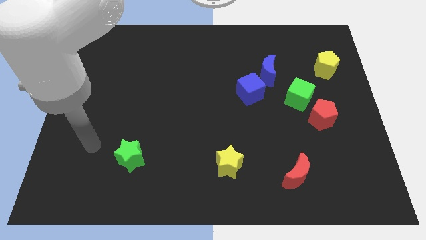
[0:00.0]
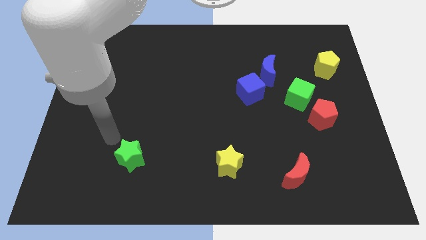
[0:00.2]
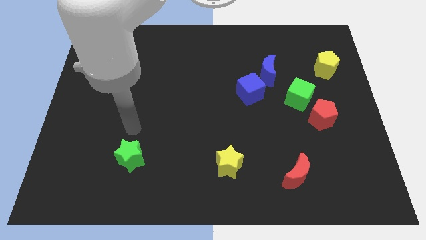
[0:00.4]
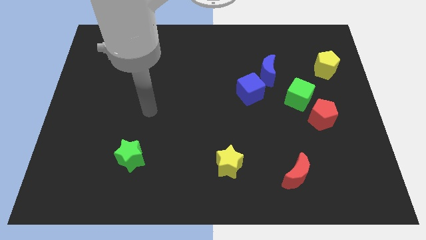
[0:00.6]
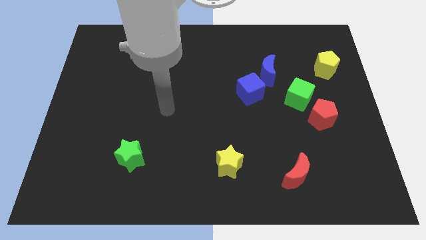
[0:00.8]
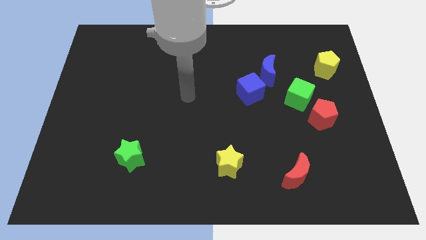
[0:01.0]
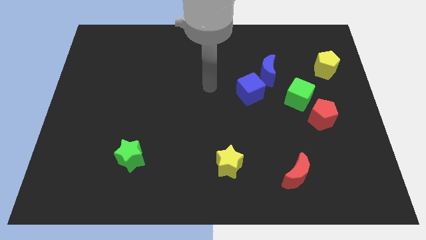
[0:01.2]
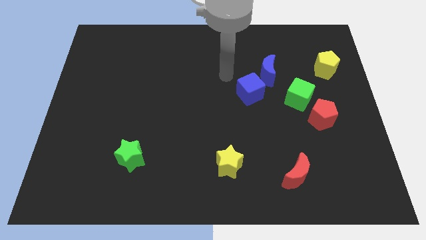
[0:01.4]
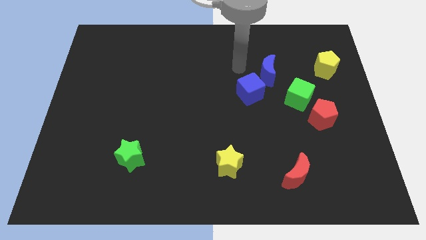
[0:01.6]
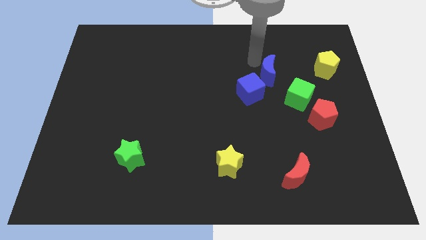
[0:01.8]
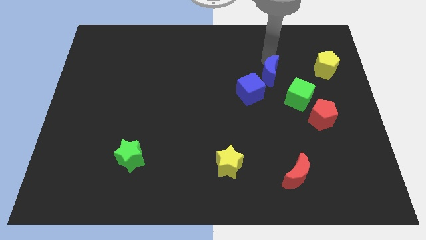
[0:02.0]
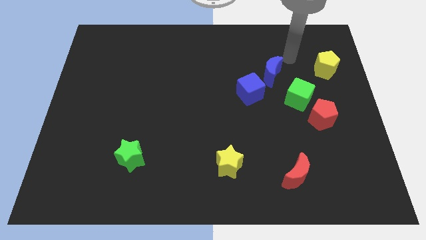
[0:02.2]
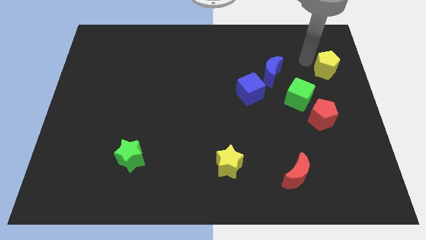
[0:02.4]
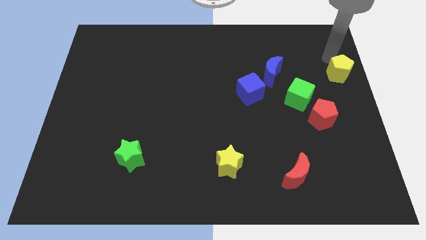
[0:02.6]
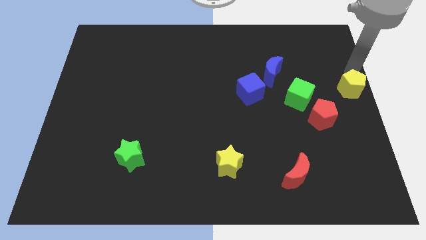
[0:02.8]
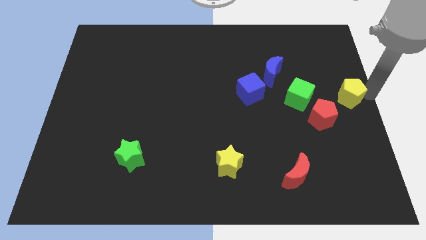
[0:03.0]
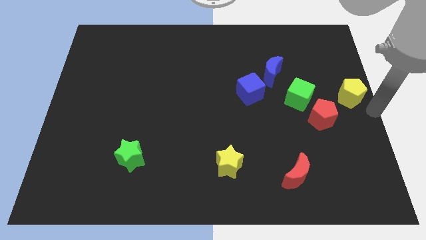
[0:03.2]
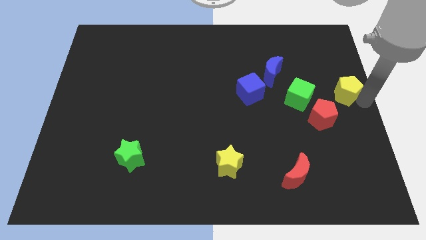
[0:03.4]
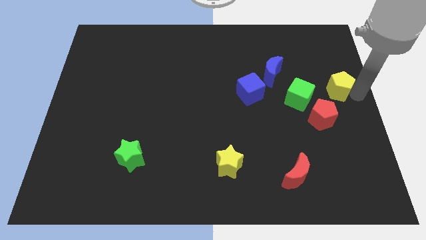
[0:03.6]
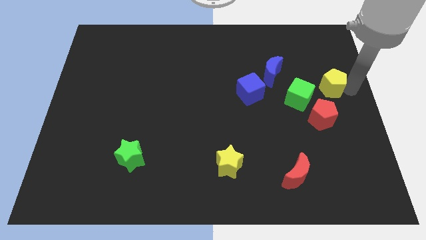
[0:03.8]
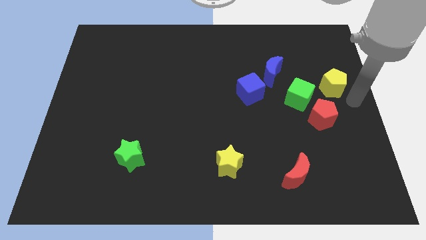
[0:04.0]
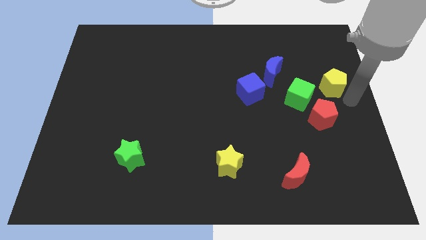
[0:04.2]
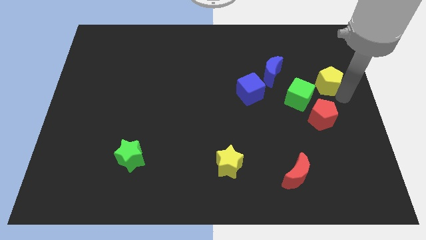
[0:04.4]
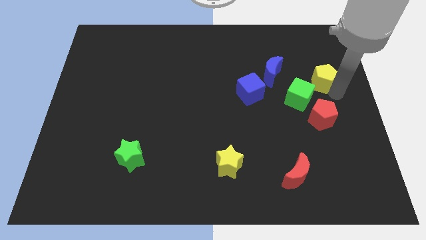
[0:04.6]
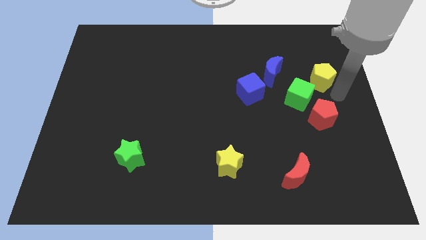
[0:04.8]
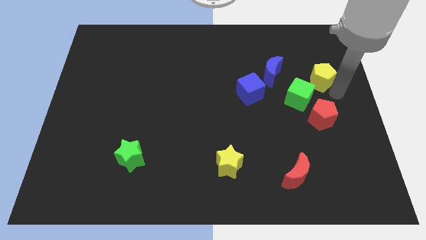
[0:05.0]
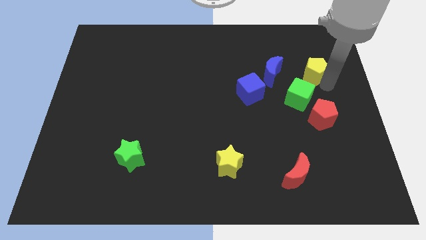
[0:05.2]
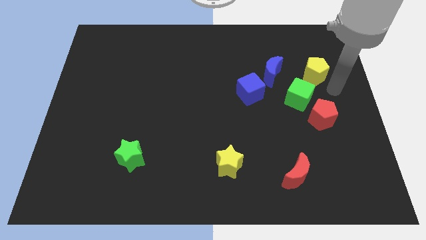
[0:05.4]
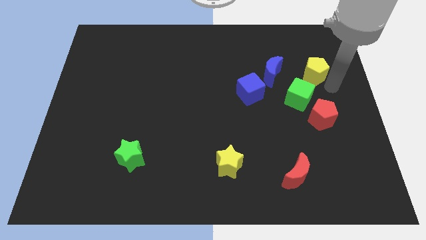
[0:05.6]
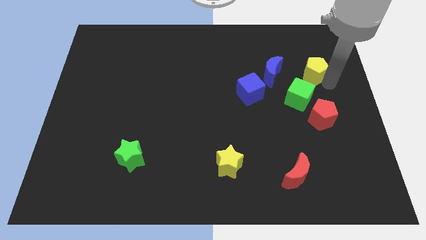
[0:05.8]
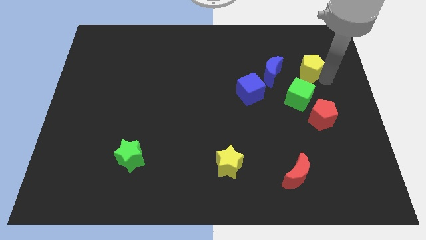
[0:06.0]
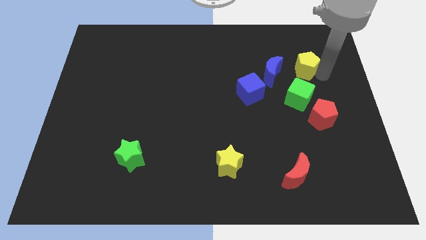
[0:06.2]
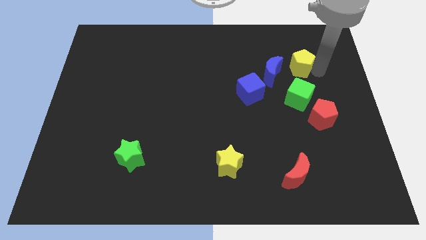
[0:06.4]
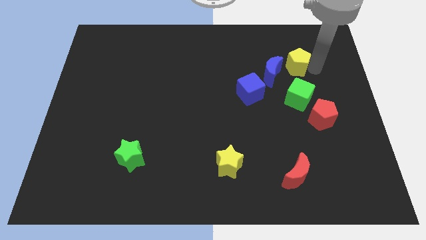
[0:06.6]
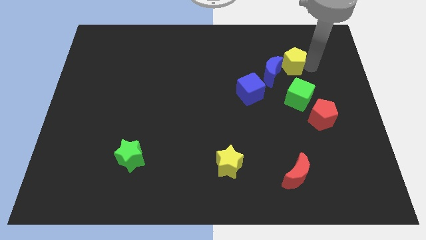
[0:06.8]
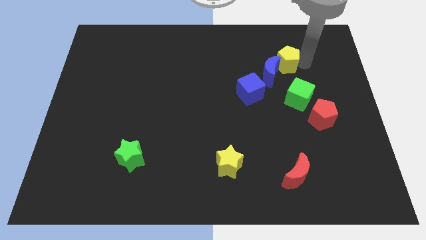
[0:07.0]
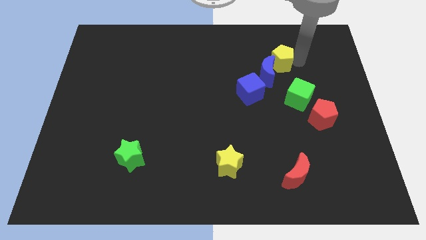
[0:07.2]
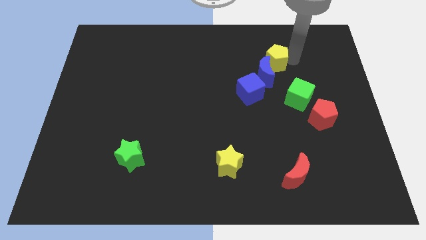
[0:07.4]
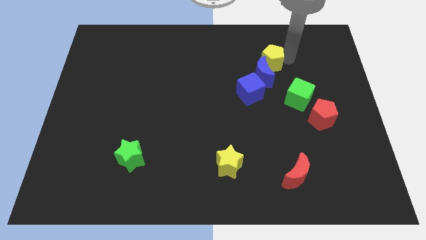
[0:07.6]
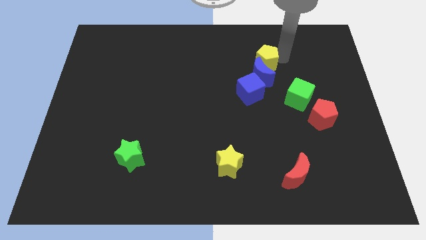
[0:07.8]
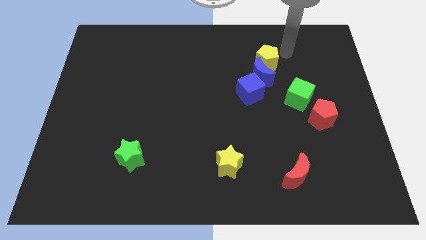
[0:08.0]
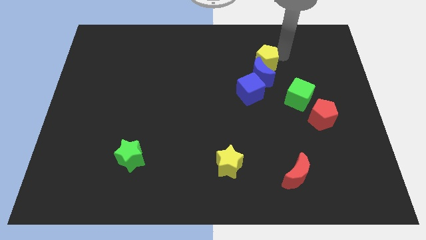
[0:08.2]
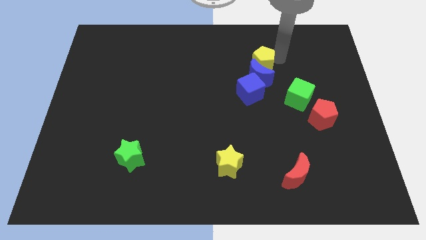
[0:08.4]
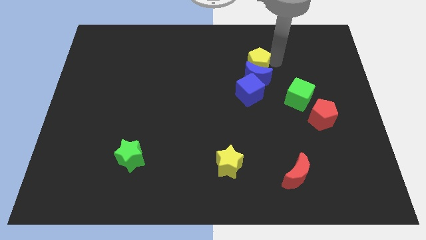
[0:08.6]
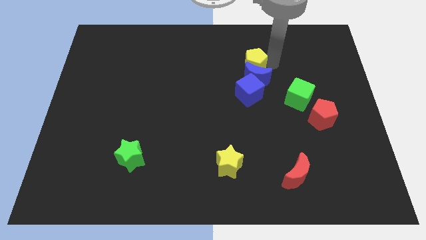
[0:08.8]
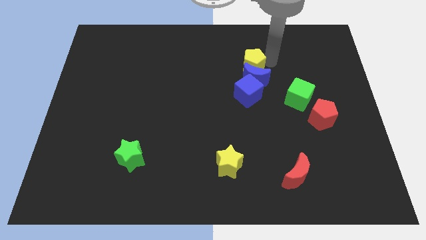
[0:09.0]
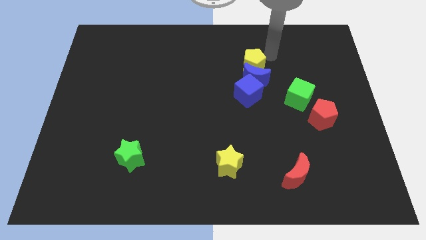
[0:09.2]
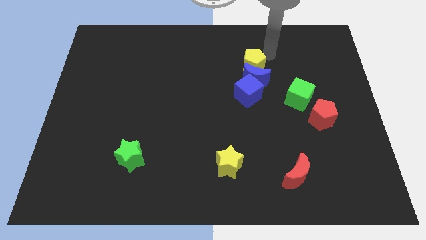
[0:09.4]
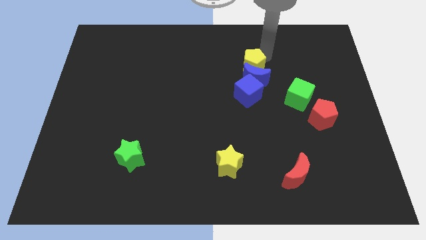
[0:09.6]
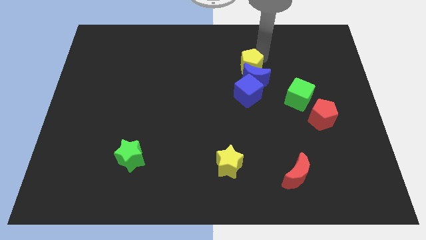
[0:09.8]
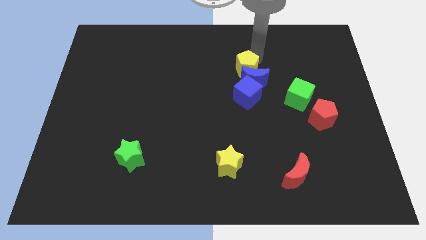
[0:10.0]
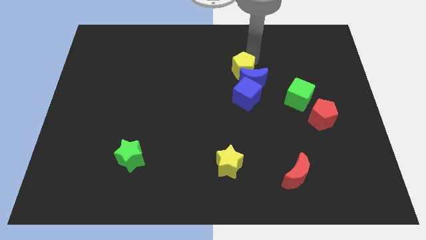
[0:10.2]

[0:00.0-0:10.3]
move the yellow pentagon to the middle of the board

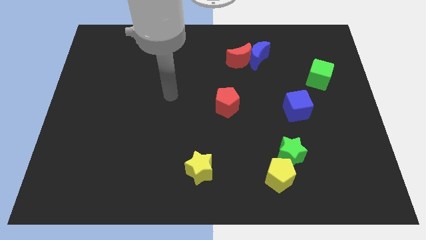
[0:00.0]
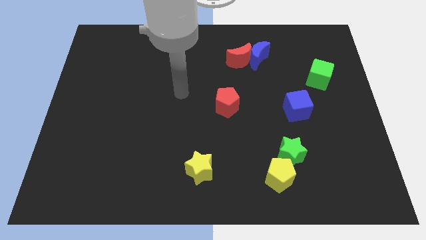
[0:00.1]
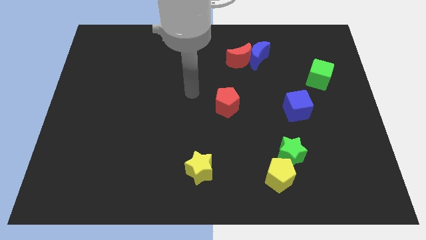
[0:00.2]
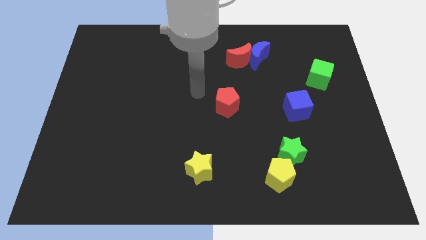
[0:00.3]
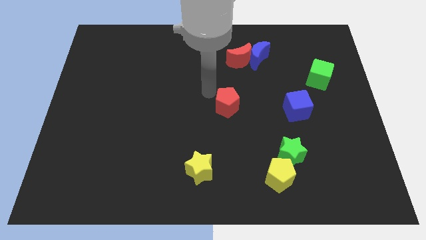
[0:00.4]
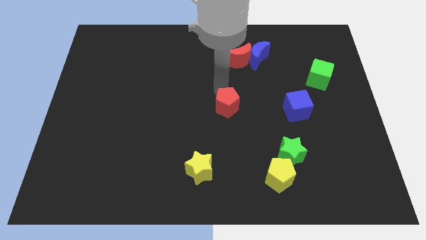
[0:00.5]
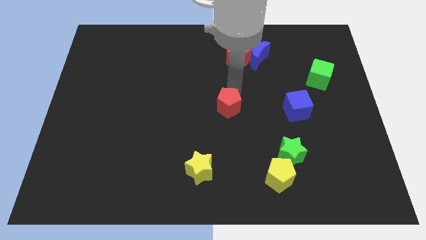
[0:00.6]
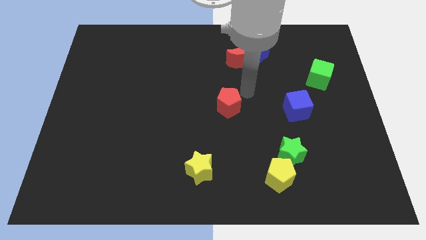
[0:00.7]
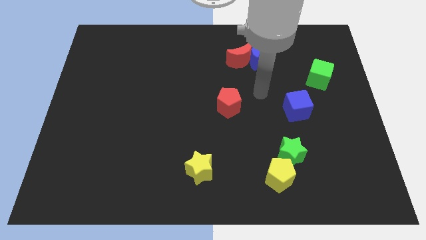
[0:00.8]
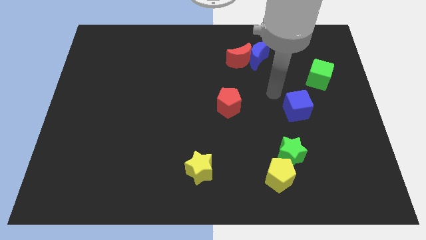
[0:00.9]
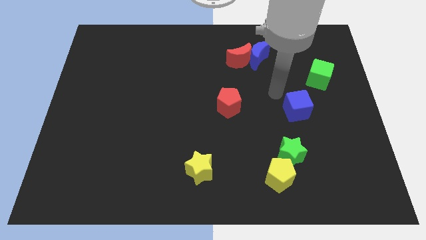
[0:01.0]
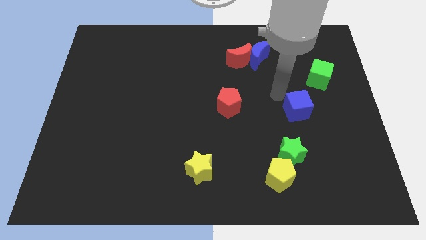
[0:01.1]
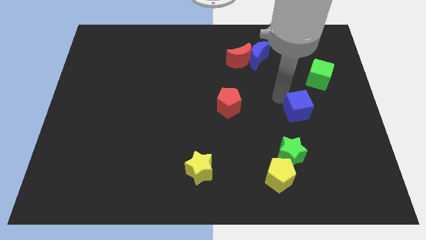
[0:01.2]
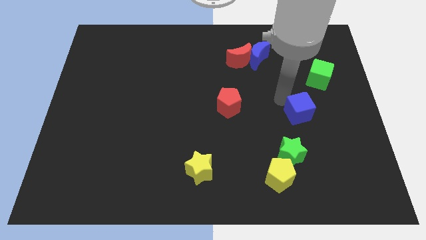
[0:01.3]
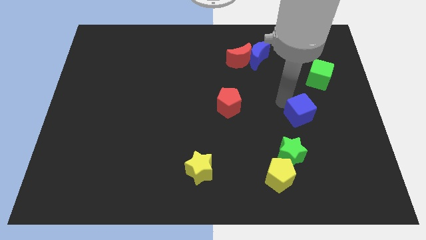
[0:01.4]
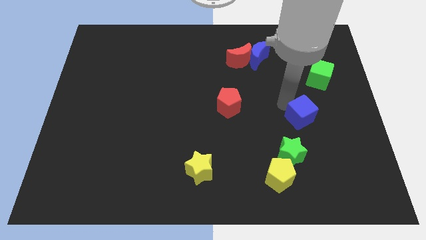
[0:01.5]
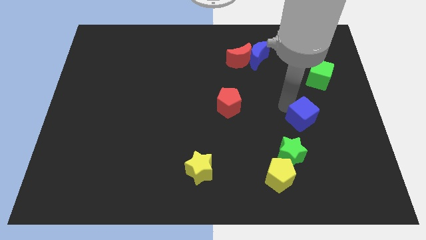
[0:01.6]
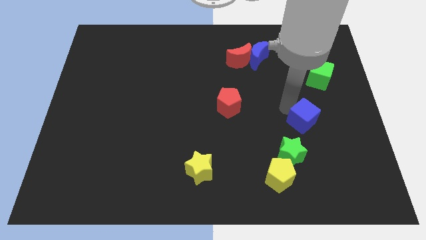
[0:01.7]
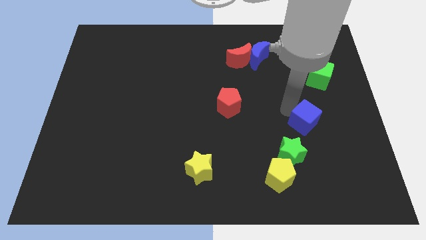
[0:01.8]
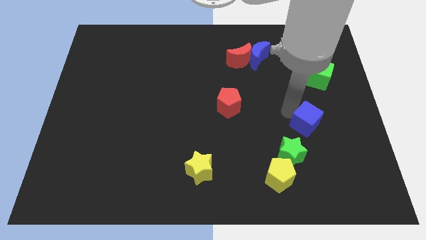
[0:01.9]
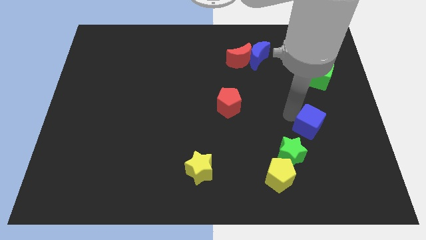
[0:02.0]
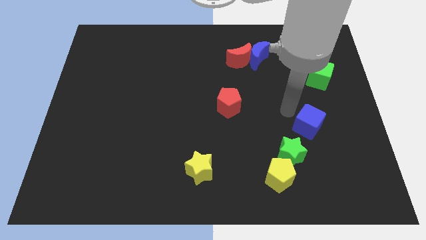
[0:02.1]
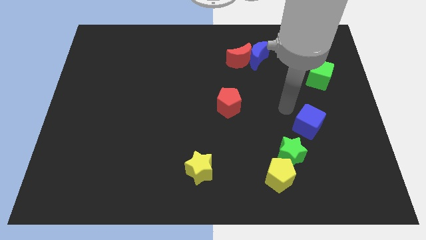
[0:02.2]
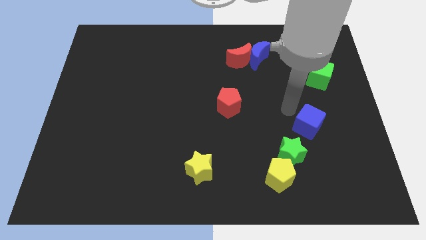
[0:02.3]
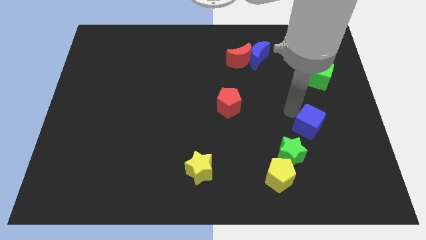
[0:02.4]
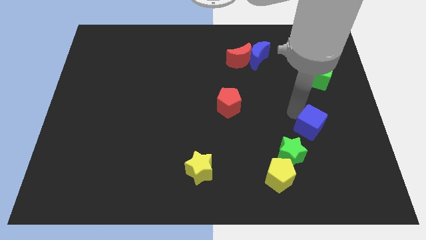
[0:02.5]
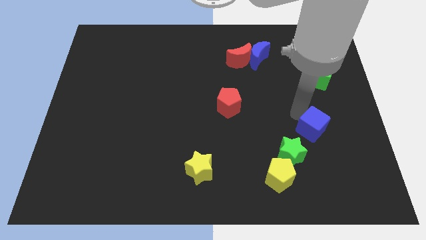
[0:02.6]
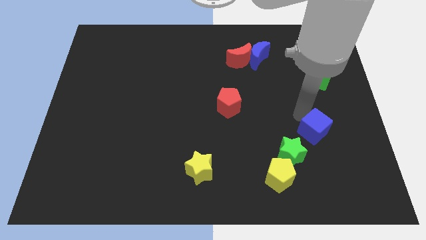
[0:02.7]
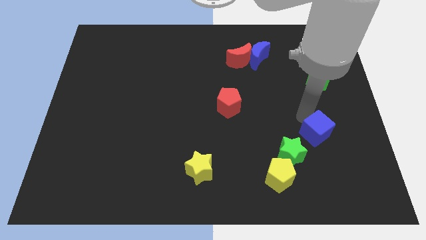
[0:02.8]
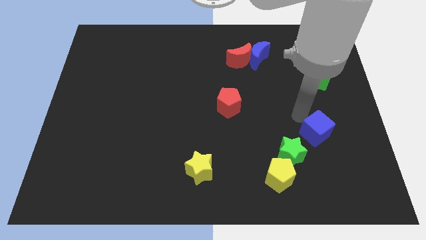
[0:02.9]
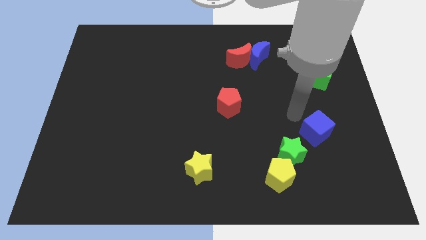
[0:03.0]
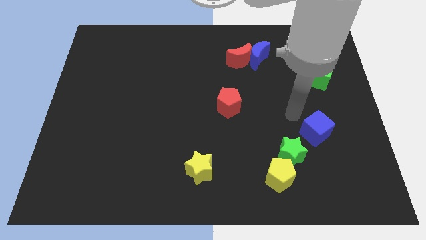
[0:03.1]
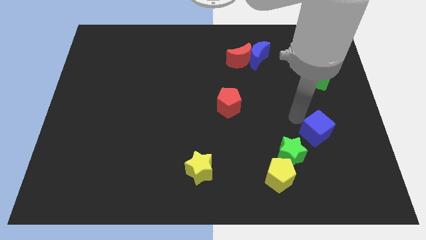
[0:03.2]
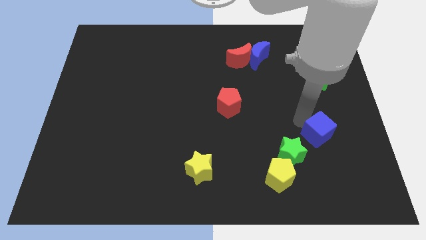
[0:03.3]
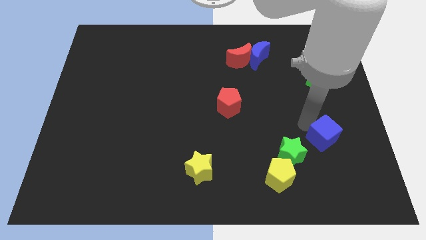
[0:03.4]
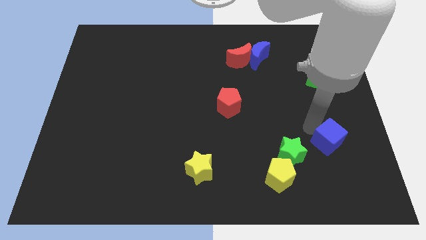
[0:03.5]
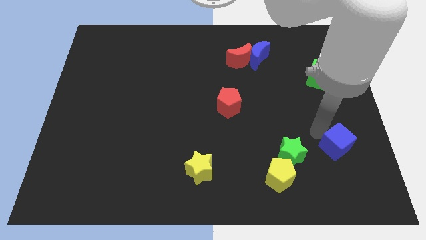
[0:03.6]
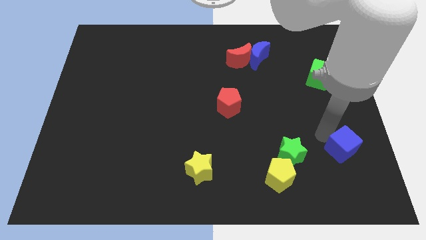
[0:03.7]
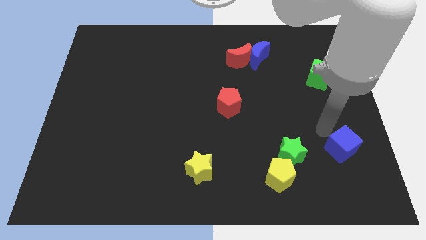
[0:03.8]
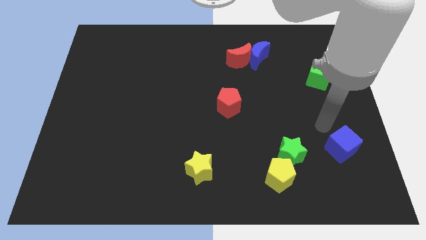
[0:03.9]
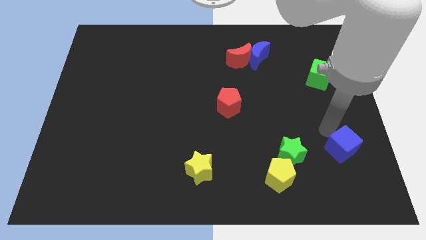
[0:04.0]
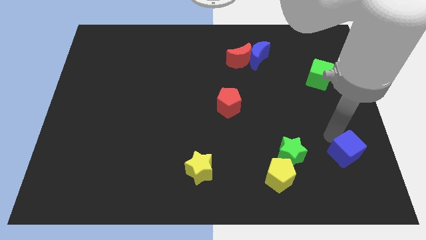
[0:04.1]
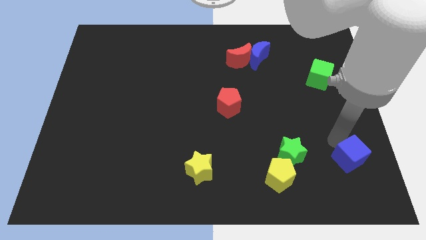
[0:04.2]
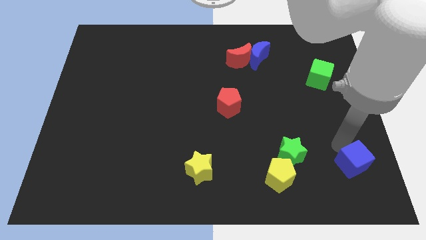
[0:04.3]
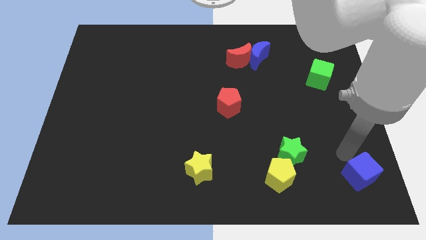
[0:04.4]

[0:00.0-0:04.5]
slide the blue cube to the bottom right of the board
